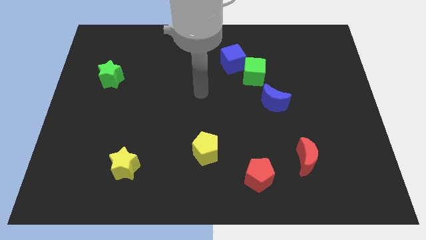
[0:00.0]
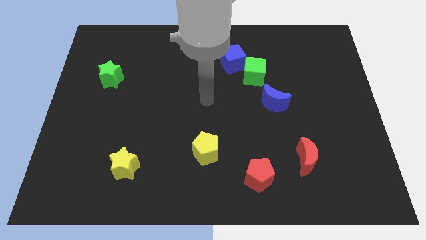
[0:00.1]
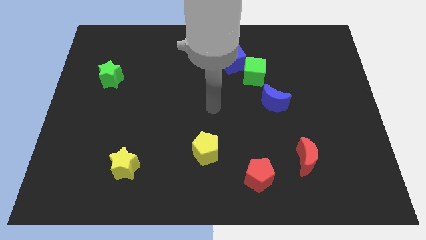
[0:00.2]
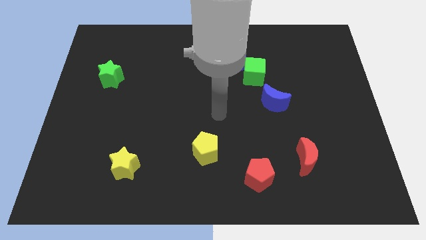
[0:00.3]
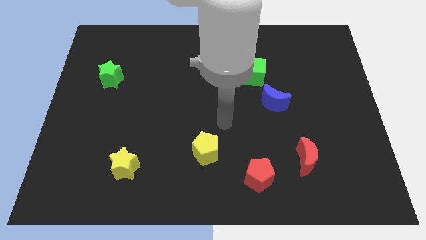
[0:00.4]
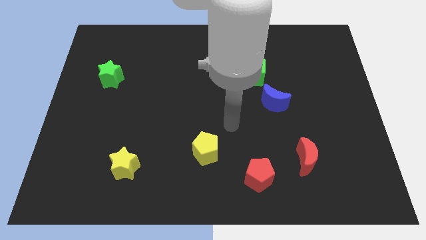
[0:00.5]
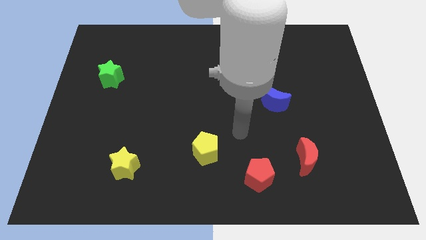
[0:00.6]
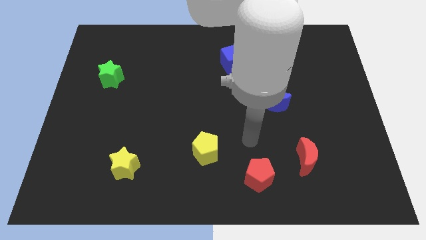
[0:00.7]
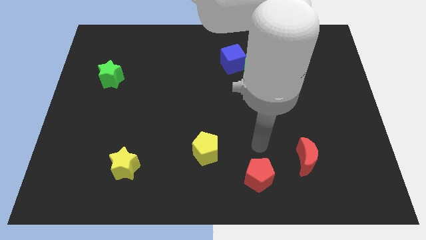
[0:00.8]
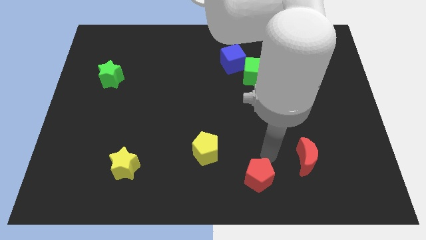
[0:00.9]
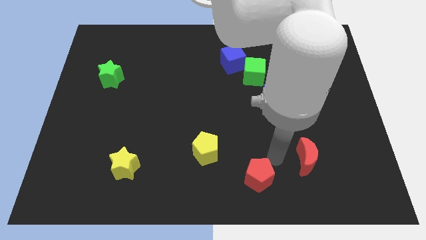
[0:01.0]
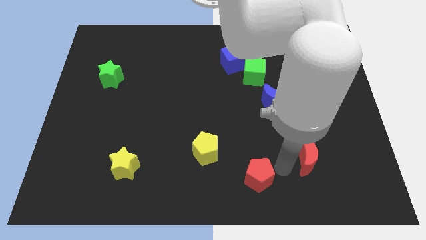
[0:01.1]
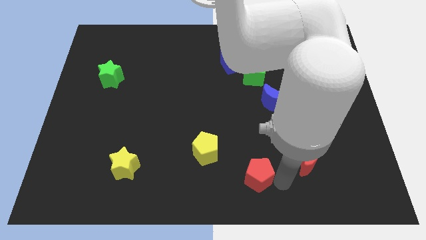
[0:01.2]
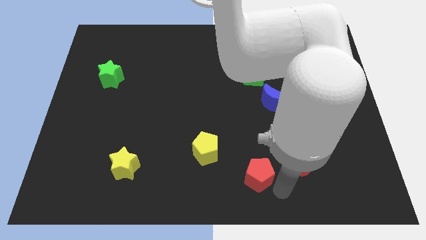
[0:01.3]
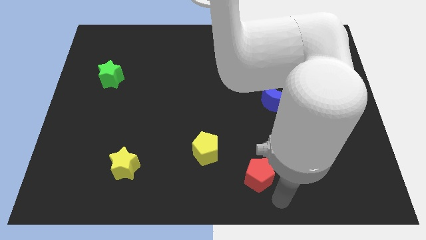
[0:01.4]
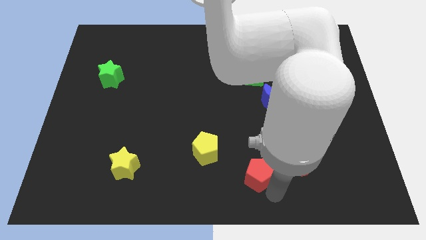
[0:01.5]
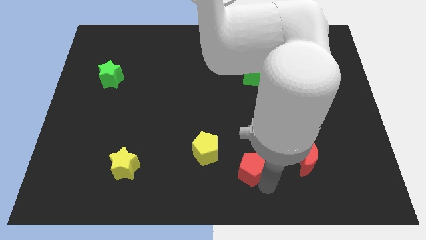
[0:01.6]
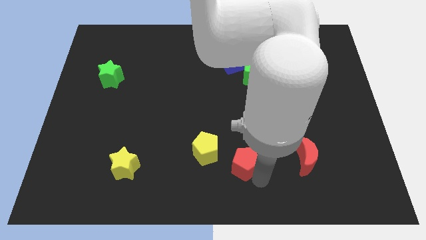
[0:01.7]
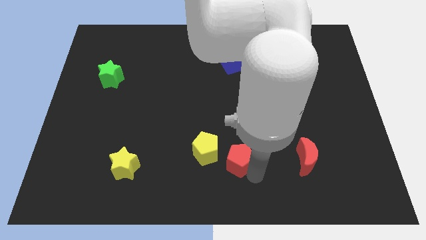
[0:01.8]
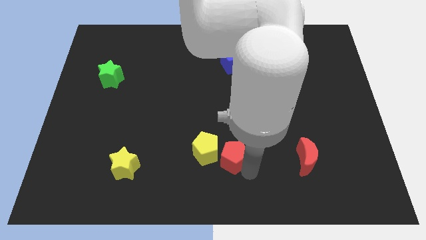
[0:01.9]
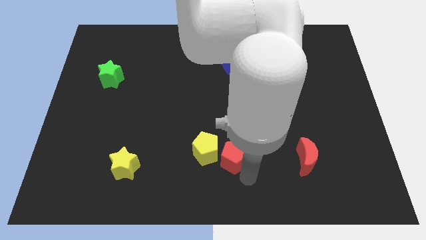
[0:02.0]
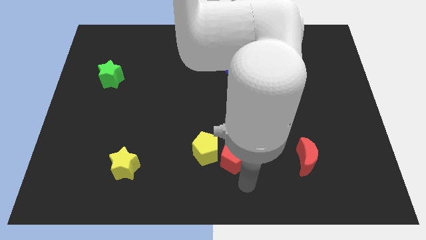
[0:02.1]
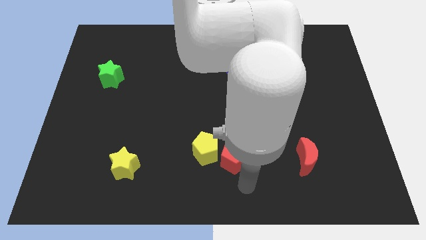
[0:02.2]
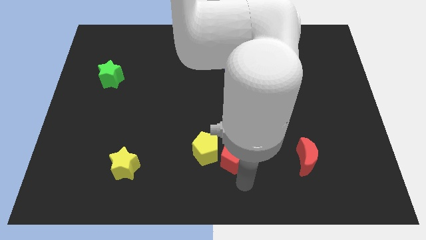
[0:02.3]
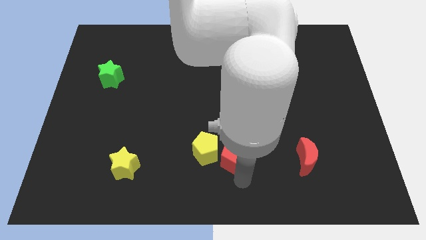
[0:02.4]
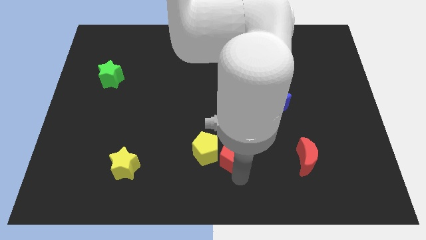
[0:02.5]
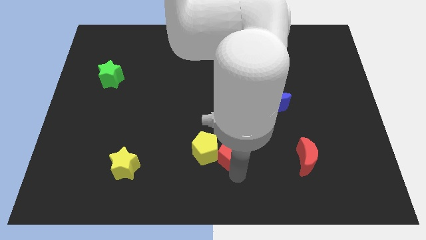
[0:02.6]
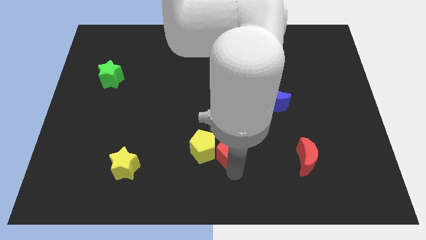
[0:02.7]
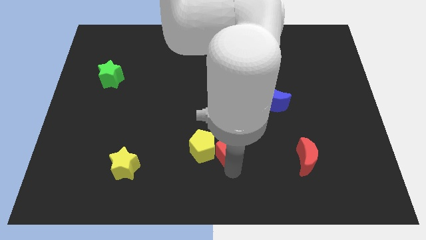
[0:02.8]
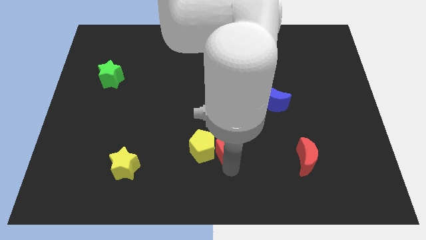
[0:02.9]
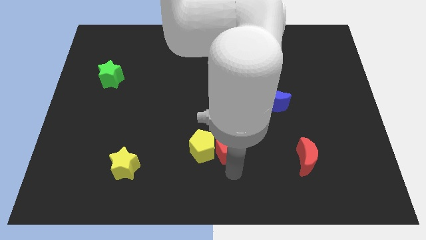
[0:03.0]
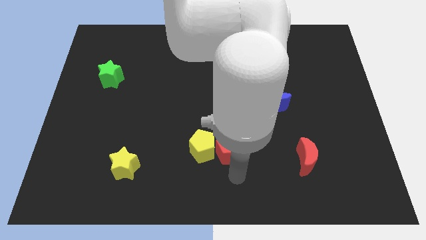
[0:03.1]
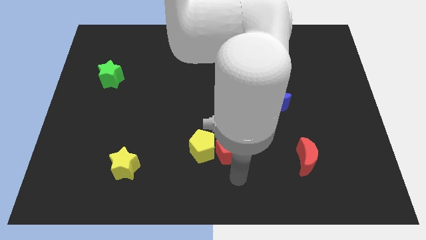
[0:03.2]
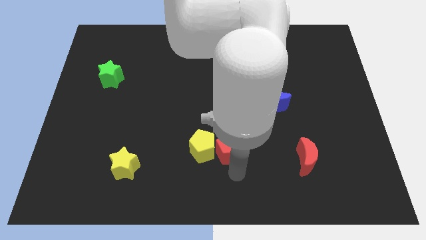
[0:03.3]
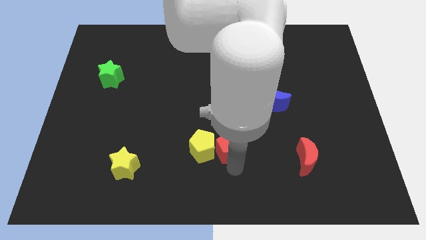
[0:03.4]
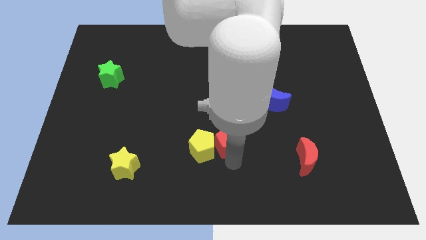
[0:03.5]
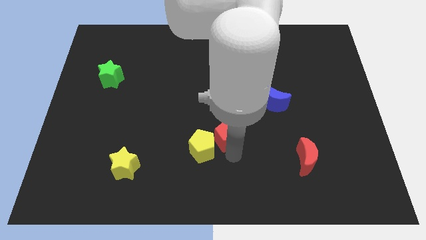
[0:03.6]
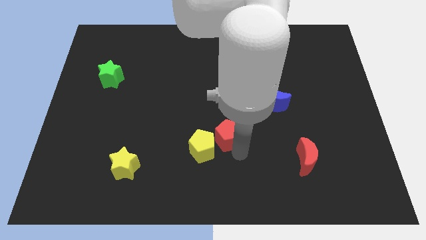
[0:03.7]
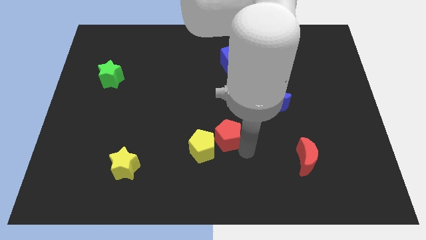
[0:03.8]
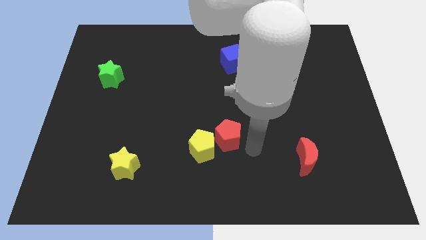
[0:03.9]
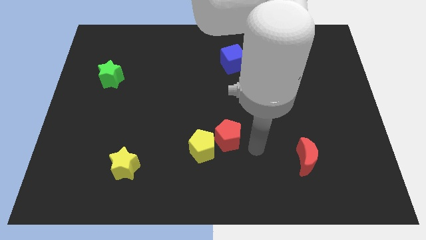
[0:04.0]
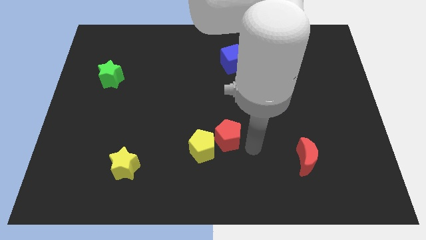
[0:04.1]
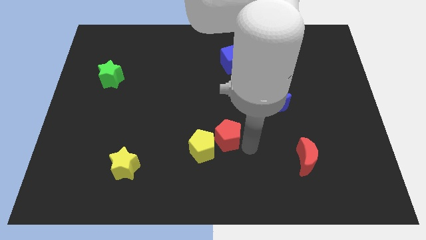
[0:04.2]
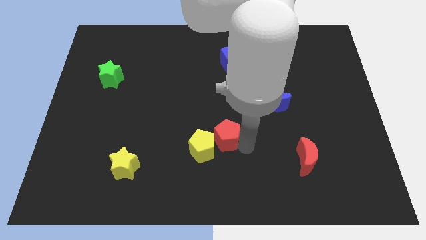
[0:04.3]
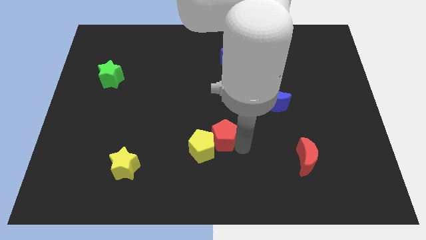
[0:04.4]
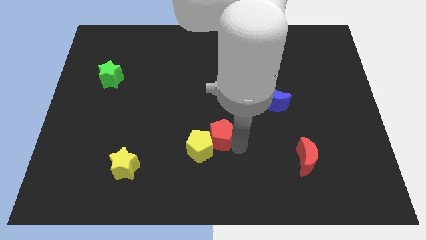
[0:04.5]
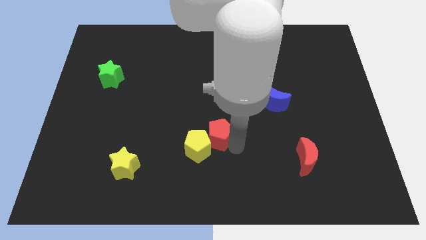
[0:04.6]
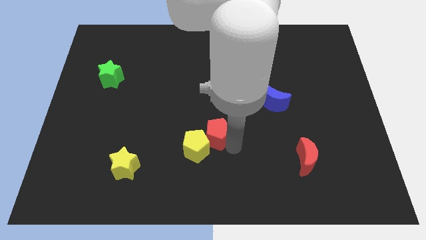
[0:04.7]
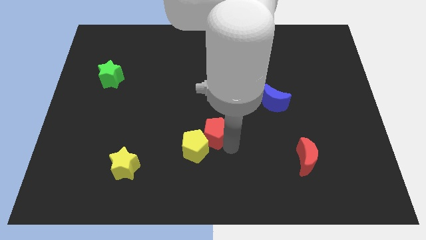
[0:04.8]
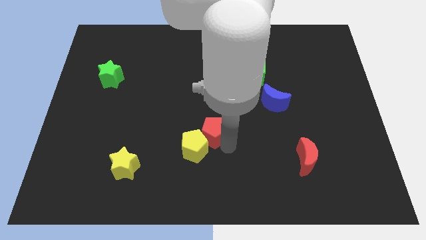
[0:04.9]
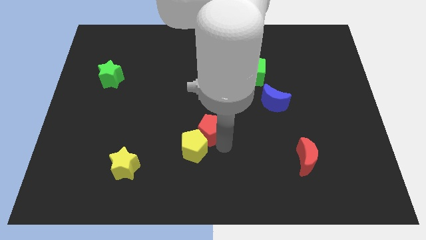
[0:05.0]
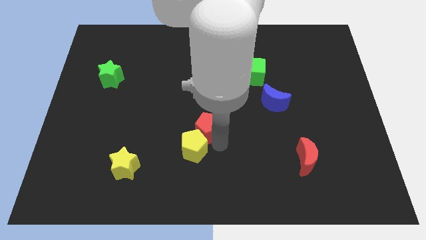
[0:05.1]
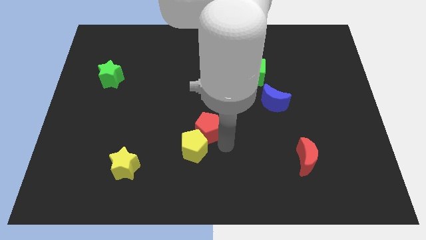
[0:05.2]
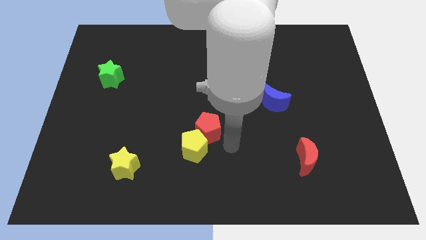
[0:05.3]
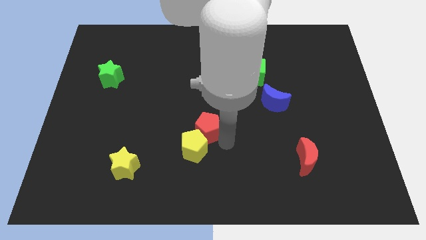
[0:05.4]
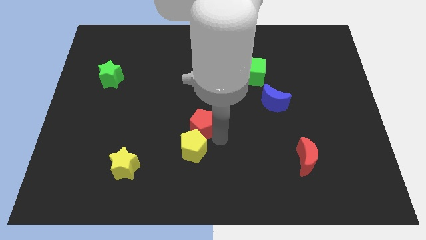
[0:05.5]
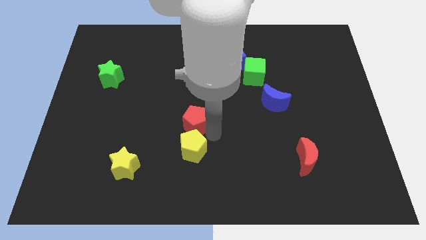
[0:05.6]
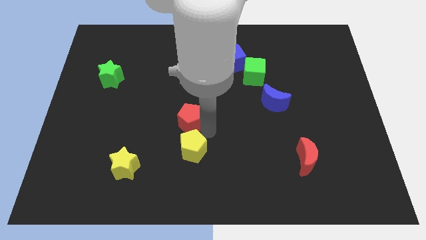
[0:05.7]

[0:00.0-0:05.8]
move the red pentagon upwards and to the left

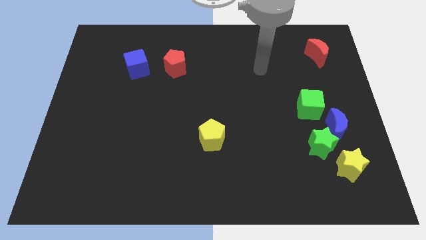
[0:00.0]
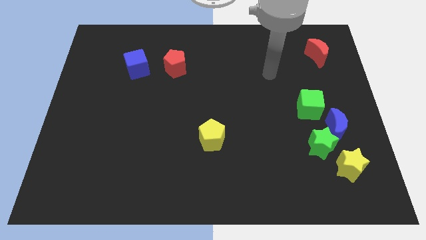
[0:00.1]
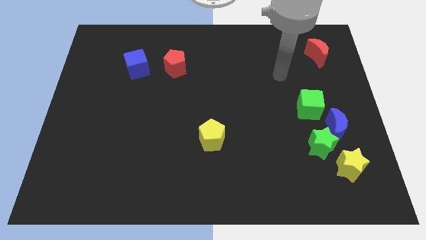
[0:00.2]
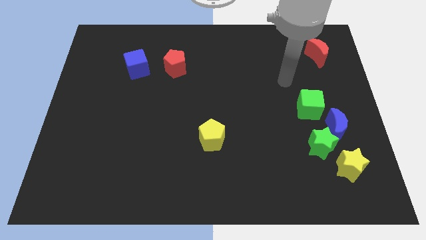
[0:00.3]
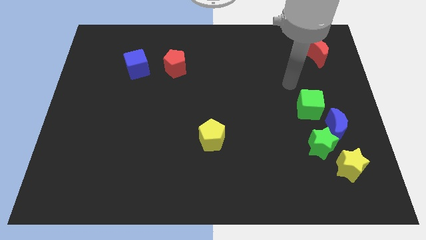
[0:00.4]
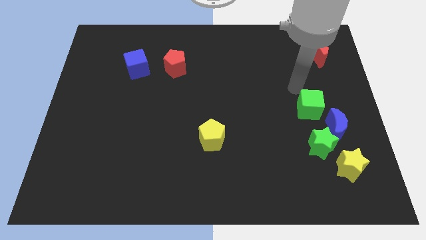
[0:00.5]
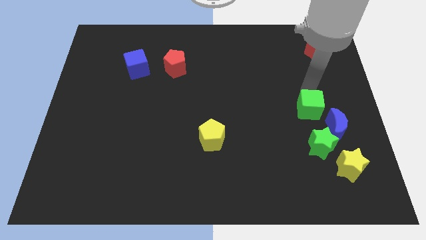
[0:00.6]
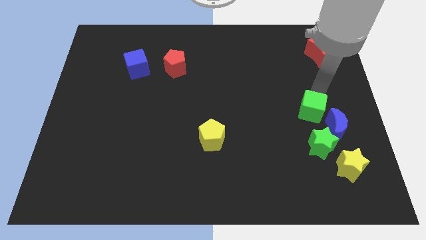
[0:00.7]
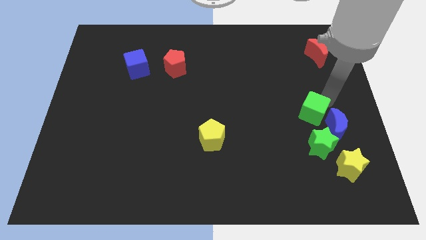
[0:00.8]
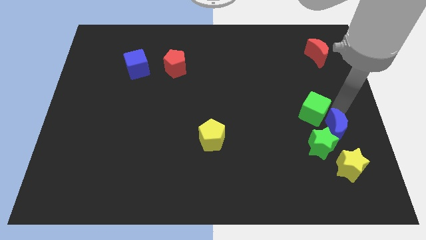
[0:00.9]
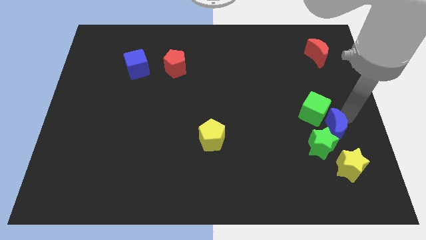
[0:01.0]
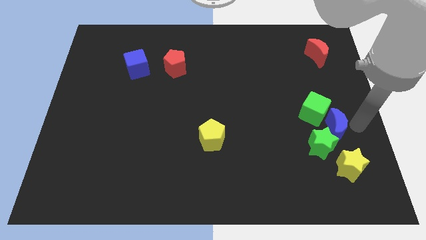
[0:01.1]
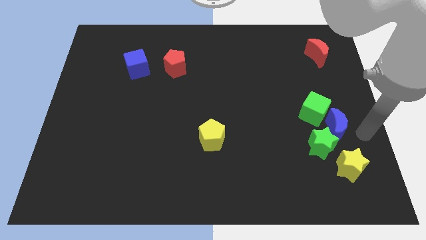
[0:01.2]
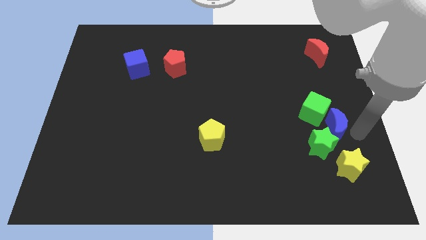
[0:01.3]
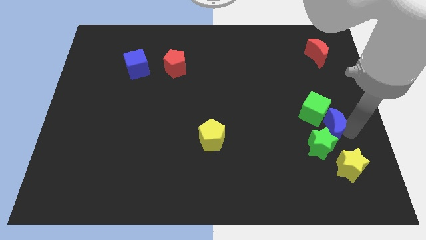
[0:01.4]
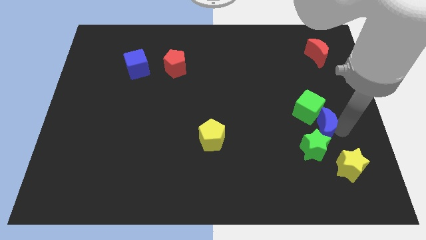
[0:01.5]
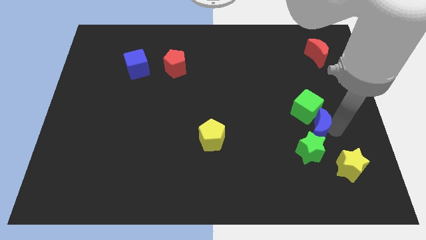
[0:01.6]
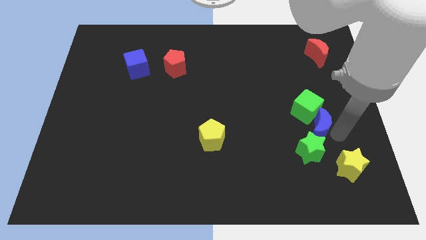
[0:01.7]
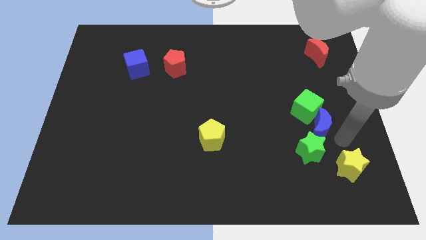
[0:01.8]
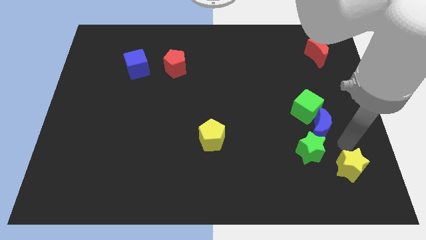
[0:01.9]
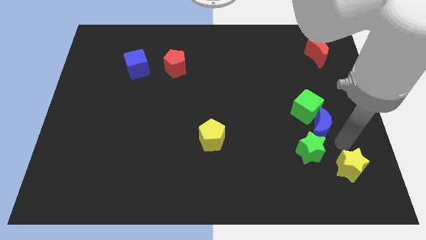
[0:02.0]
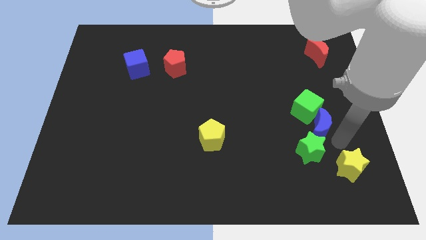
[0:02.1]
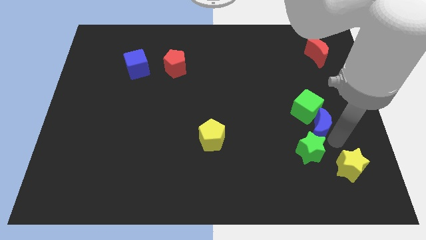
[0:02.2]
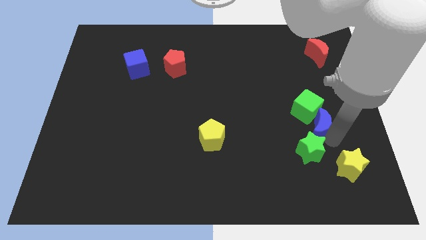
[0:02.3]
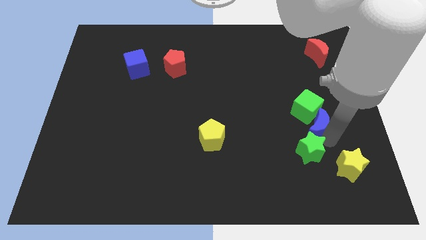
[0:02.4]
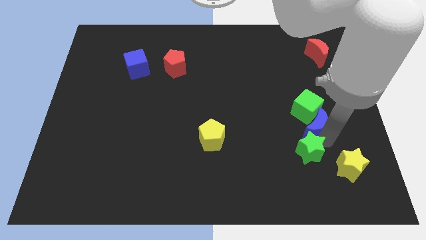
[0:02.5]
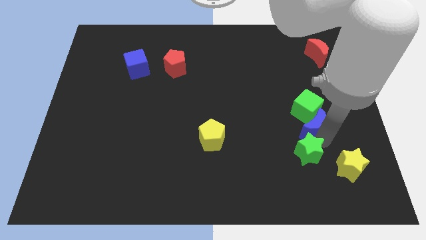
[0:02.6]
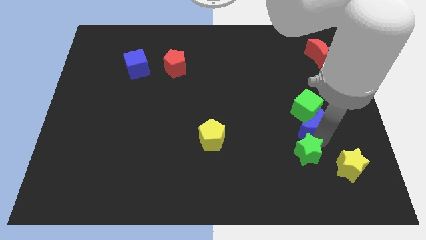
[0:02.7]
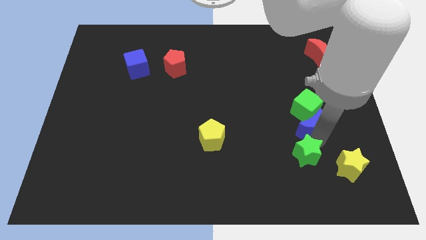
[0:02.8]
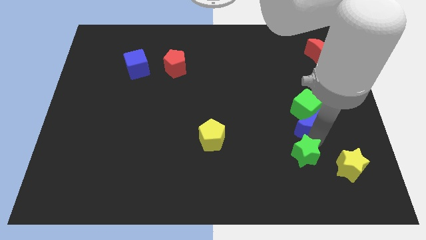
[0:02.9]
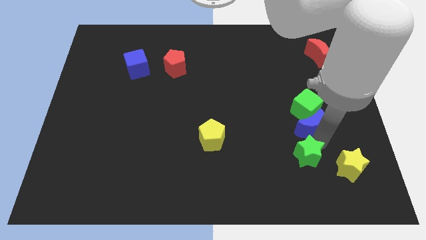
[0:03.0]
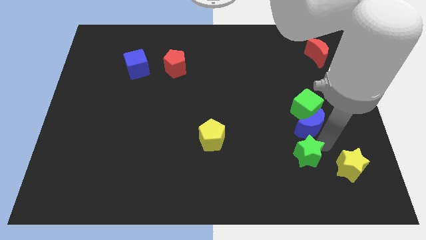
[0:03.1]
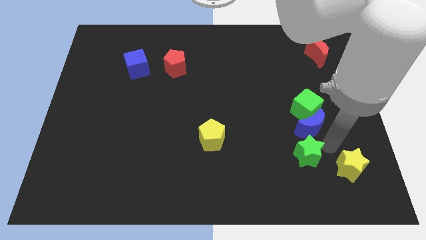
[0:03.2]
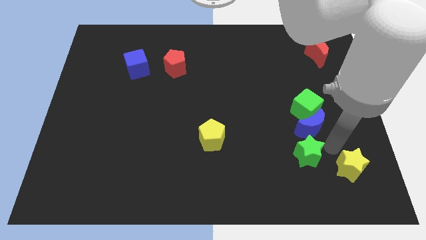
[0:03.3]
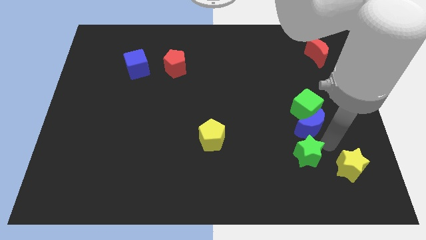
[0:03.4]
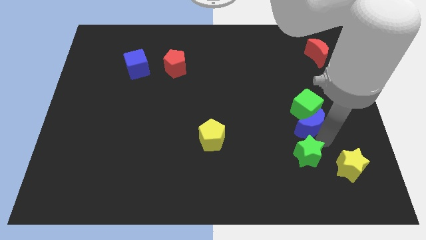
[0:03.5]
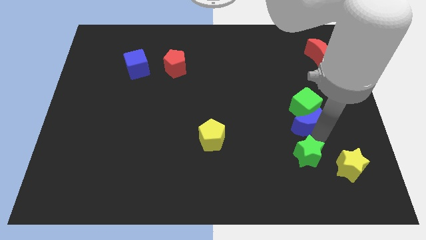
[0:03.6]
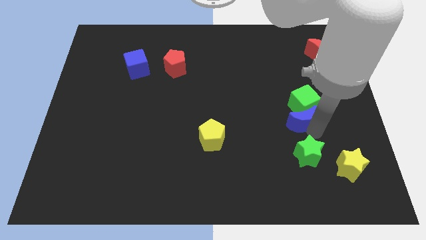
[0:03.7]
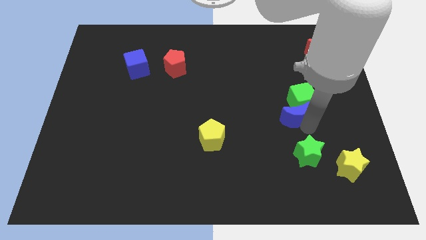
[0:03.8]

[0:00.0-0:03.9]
push the blue moon up and left a little
